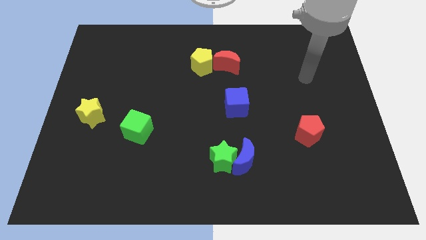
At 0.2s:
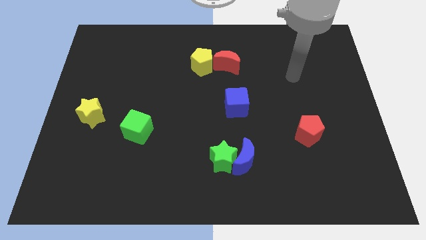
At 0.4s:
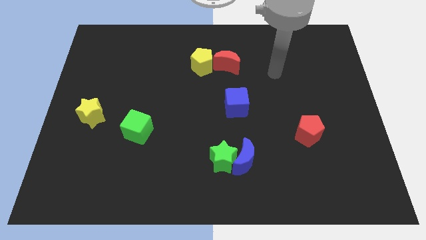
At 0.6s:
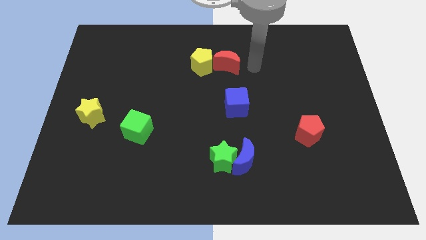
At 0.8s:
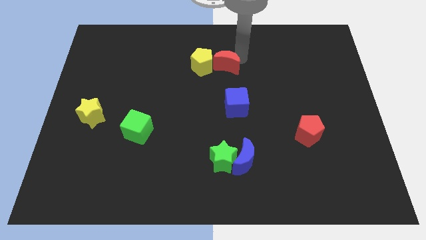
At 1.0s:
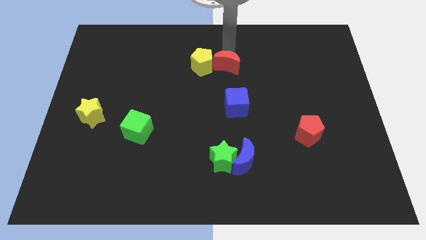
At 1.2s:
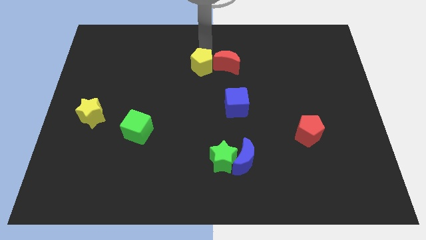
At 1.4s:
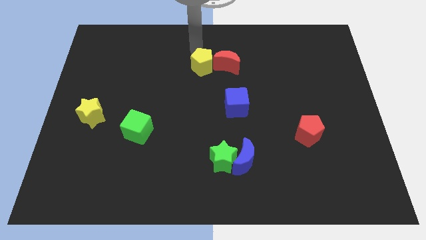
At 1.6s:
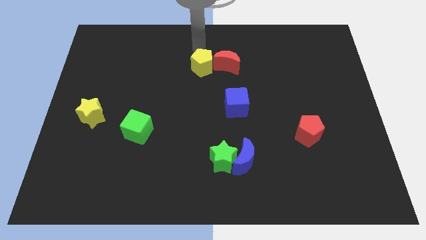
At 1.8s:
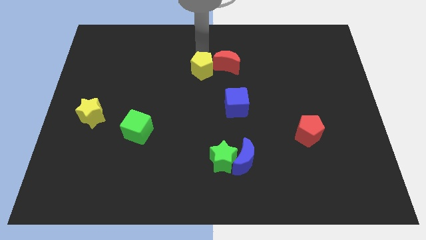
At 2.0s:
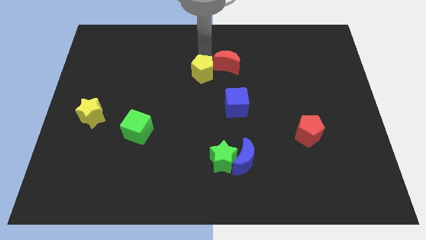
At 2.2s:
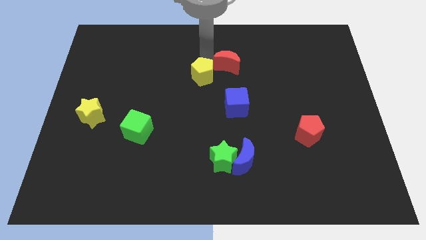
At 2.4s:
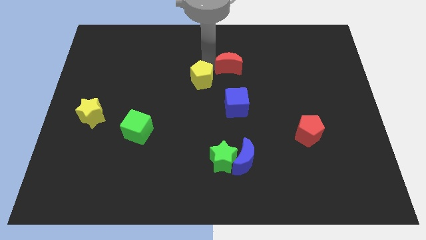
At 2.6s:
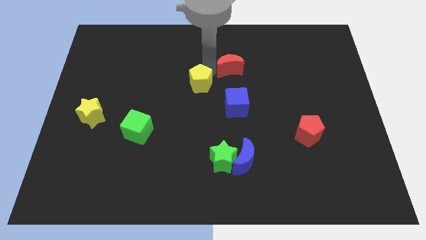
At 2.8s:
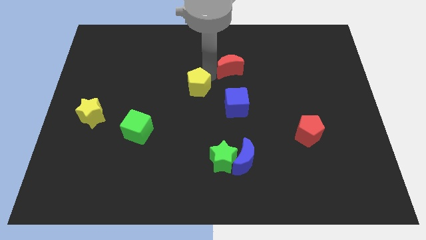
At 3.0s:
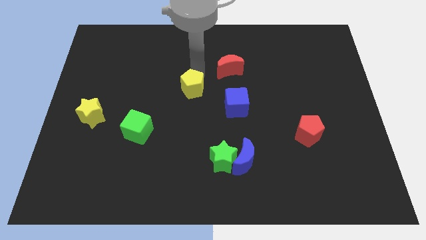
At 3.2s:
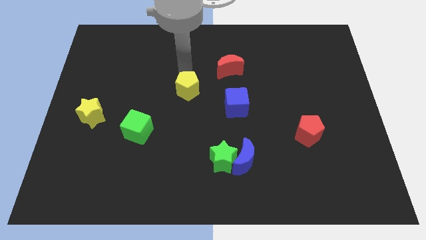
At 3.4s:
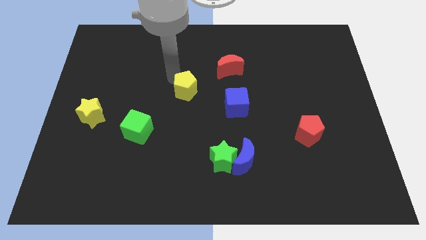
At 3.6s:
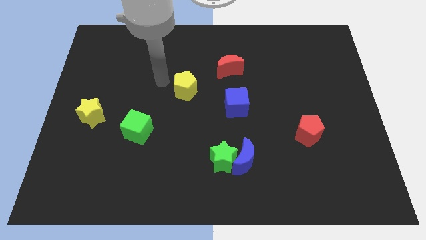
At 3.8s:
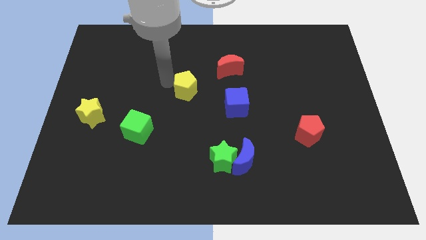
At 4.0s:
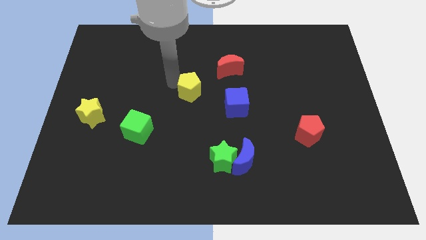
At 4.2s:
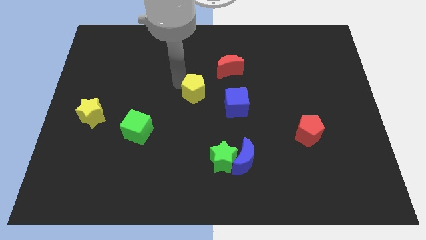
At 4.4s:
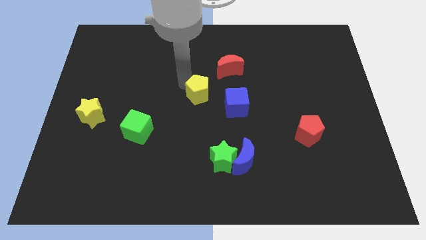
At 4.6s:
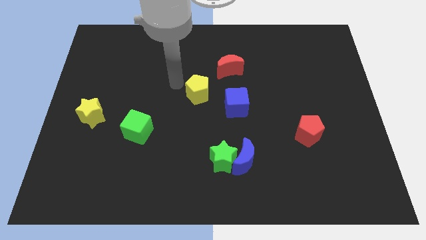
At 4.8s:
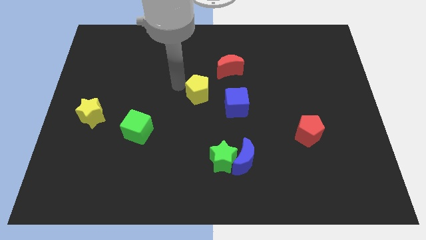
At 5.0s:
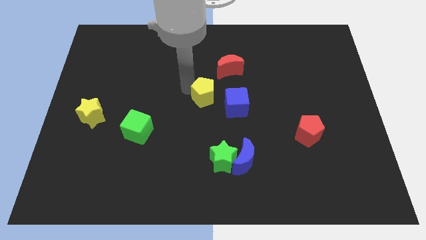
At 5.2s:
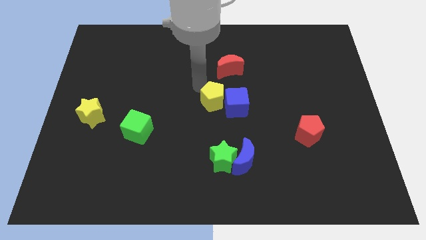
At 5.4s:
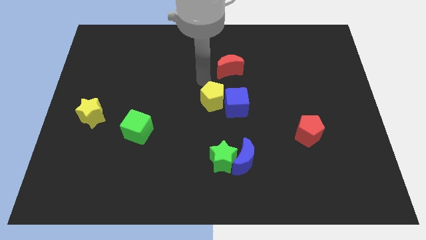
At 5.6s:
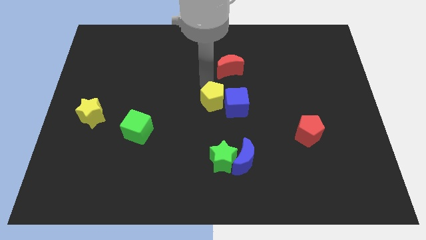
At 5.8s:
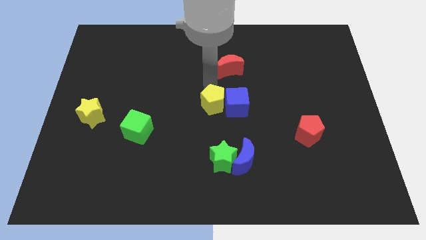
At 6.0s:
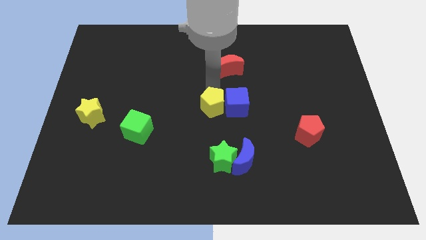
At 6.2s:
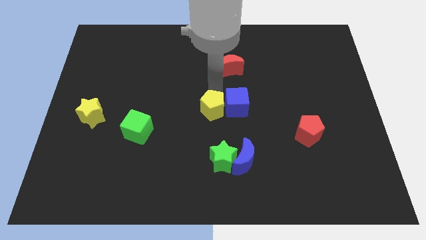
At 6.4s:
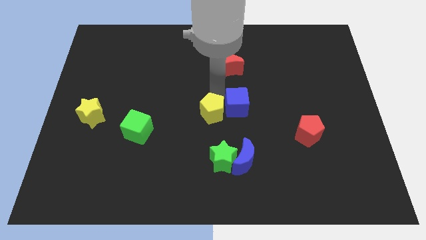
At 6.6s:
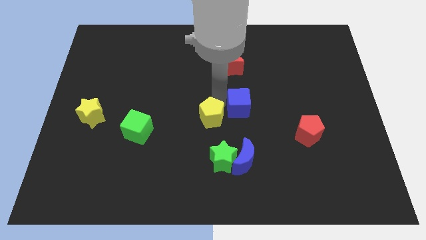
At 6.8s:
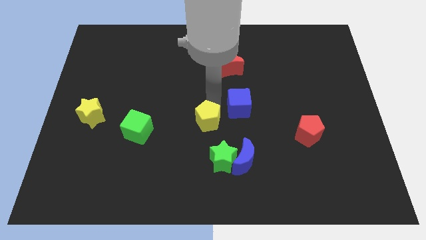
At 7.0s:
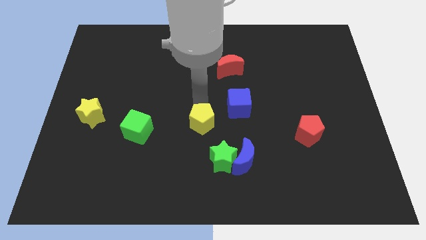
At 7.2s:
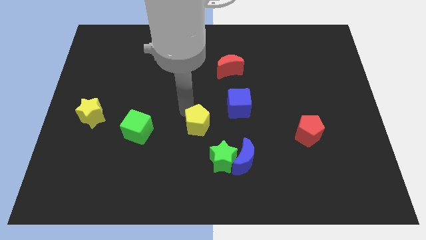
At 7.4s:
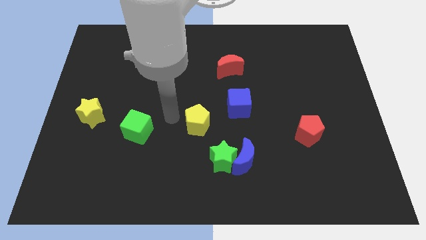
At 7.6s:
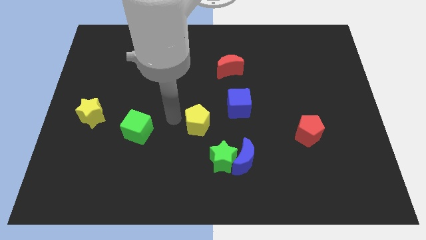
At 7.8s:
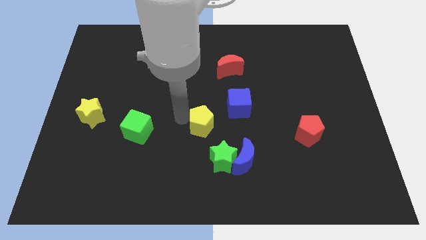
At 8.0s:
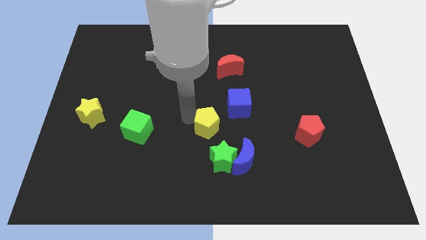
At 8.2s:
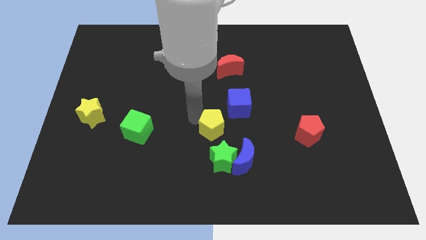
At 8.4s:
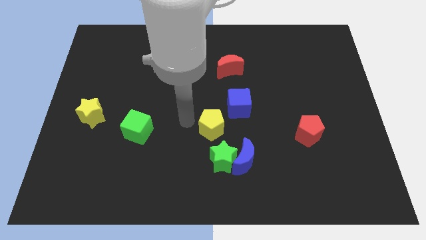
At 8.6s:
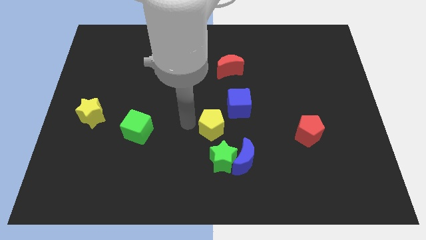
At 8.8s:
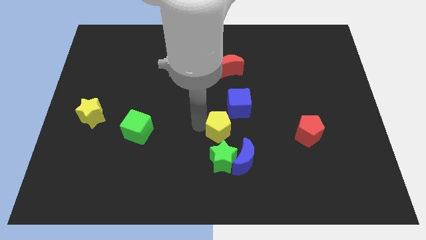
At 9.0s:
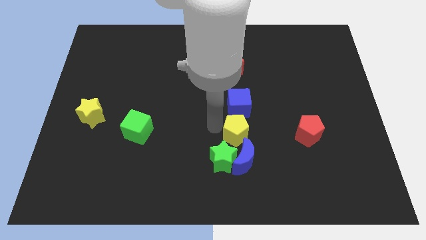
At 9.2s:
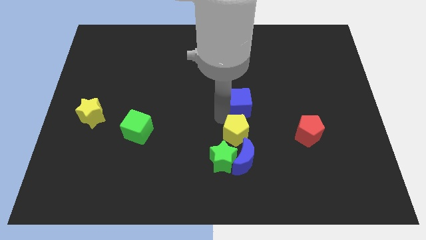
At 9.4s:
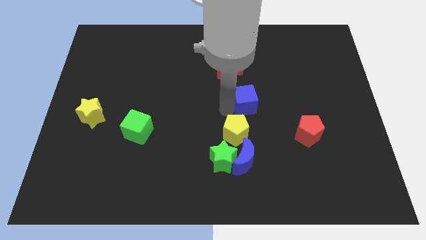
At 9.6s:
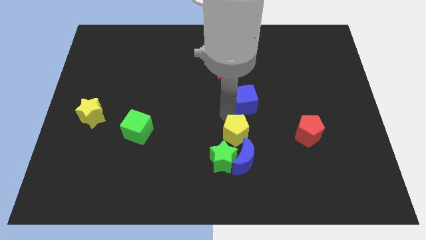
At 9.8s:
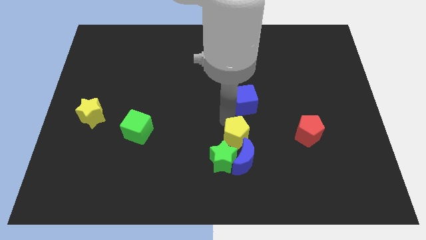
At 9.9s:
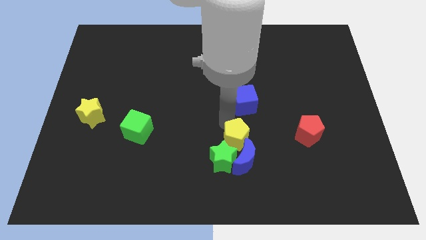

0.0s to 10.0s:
slide the yellow pentagon towards the blue moon

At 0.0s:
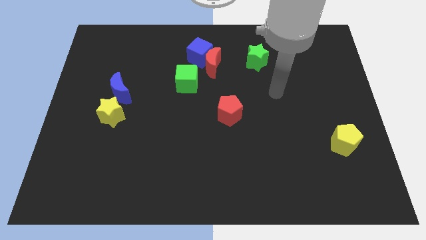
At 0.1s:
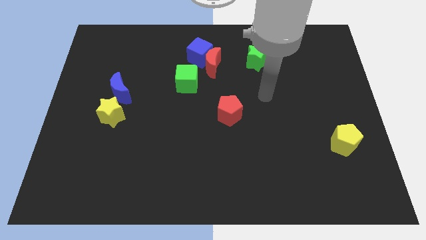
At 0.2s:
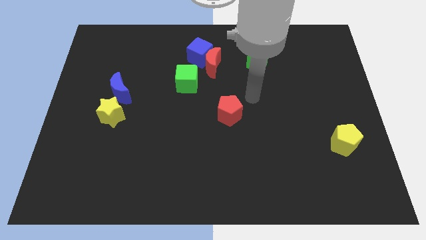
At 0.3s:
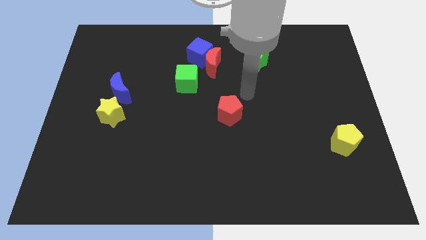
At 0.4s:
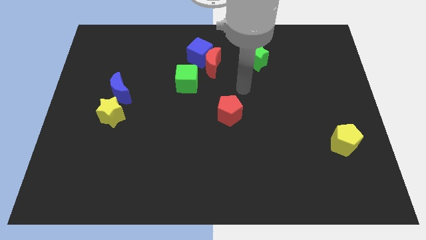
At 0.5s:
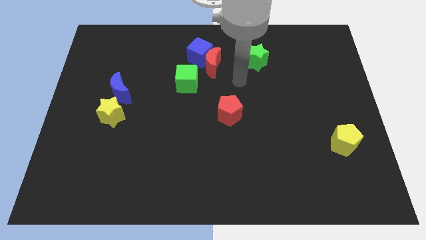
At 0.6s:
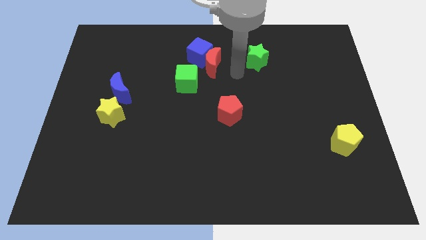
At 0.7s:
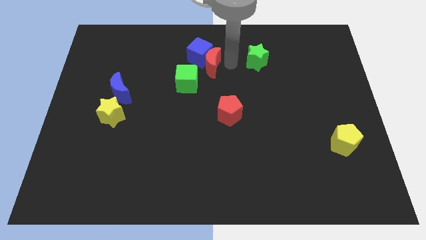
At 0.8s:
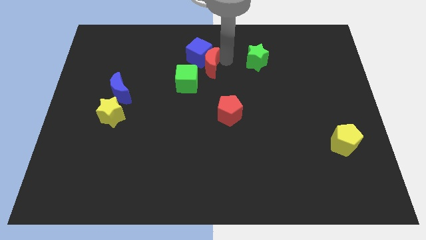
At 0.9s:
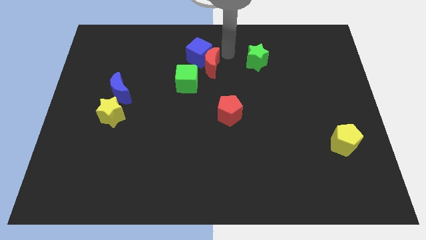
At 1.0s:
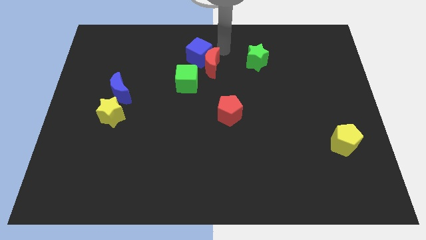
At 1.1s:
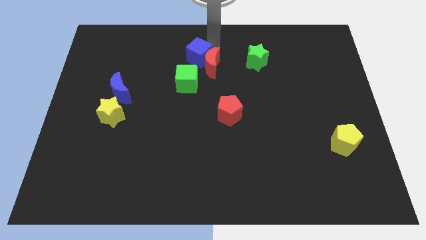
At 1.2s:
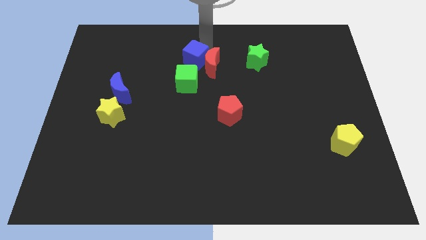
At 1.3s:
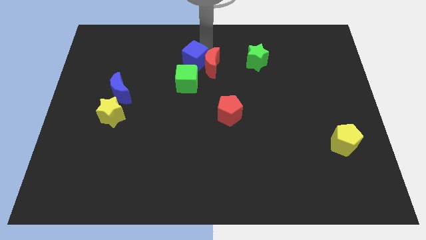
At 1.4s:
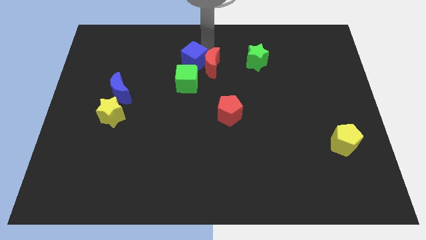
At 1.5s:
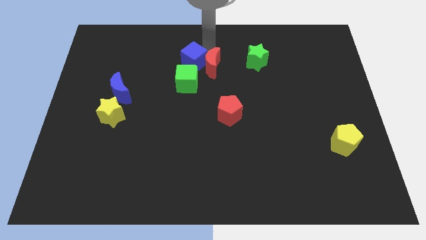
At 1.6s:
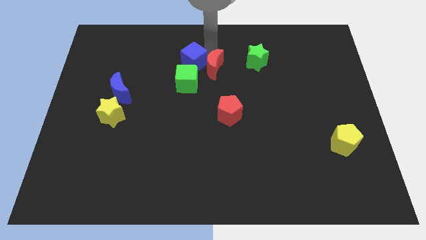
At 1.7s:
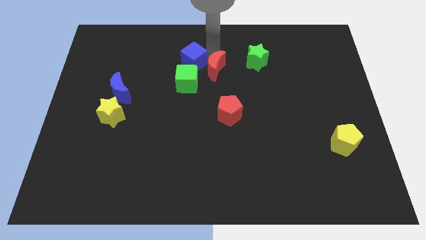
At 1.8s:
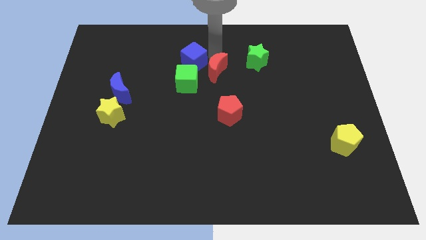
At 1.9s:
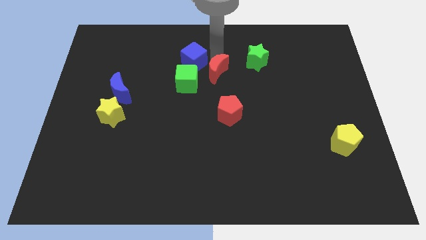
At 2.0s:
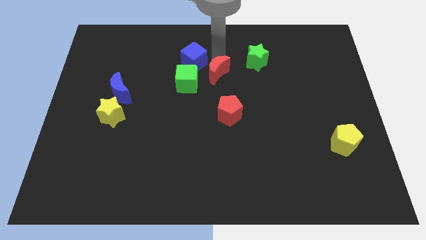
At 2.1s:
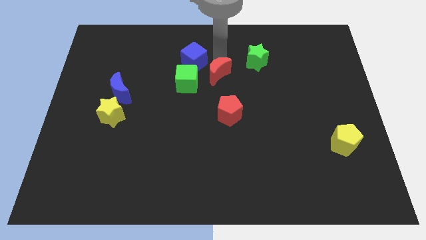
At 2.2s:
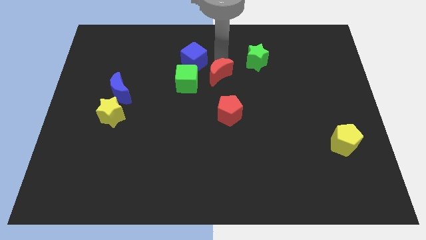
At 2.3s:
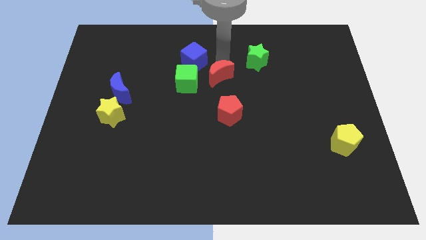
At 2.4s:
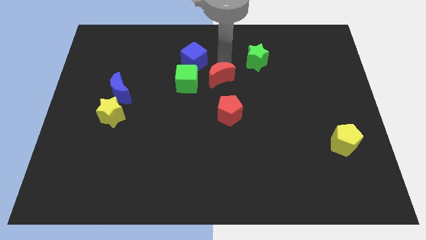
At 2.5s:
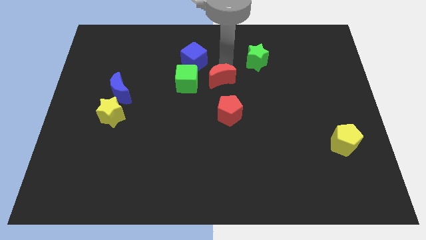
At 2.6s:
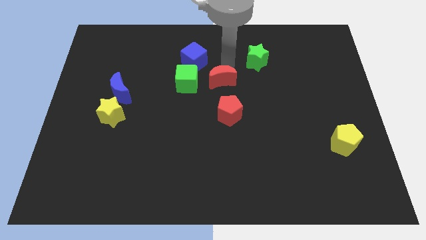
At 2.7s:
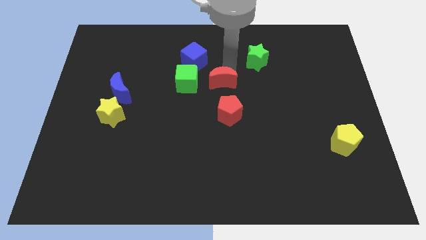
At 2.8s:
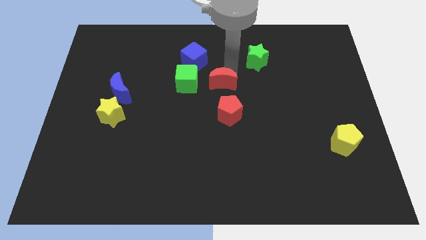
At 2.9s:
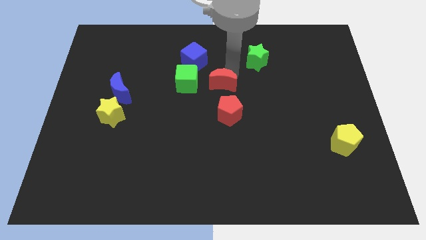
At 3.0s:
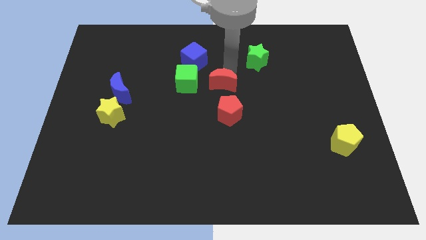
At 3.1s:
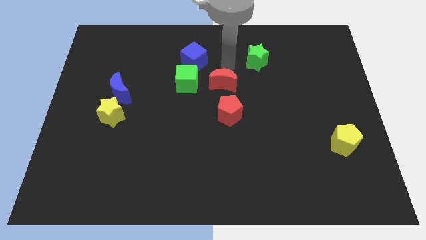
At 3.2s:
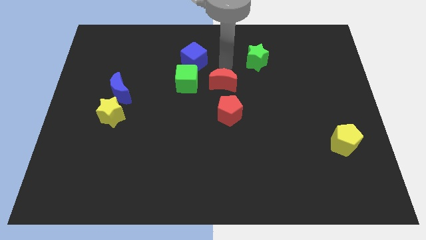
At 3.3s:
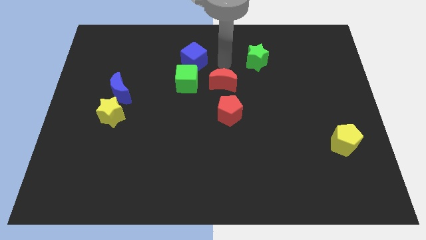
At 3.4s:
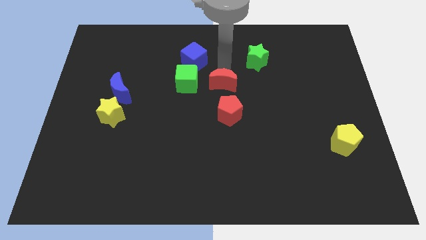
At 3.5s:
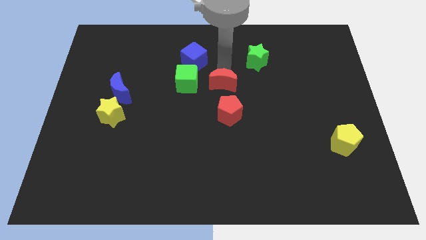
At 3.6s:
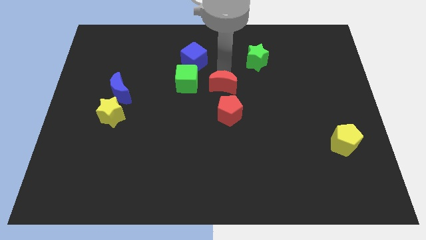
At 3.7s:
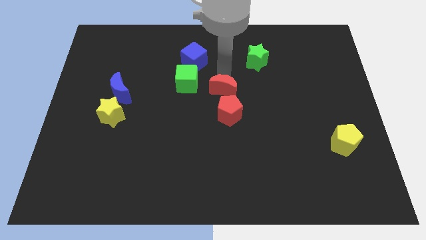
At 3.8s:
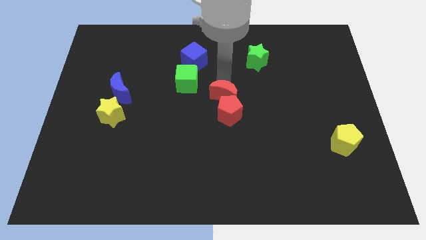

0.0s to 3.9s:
put the red moon towards the red pentagon
